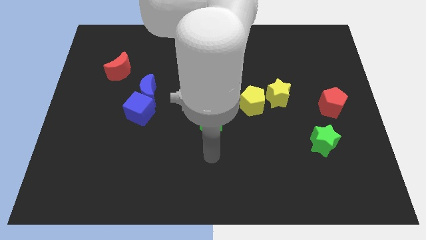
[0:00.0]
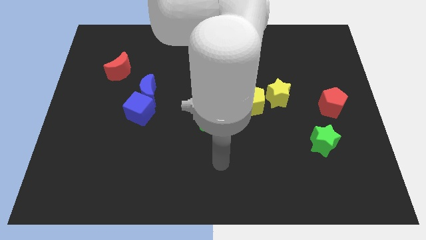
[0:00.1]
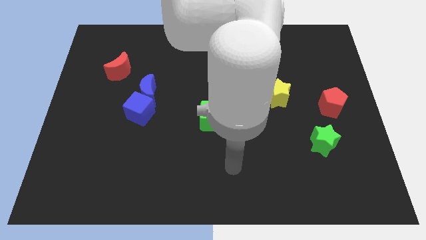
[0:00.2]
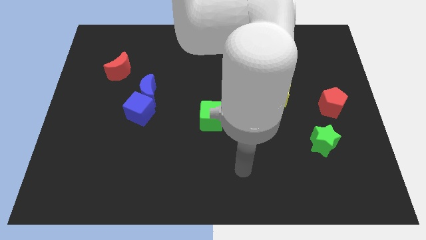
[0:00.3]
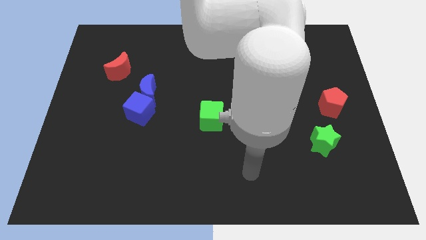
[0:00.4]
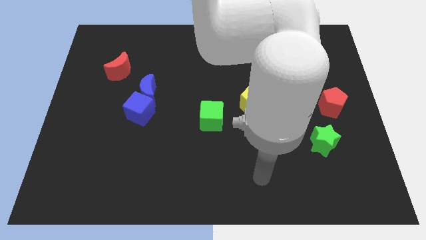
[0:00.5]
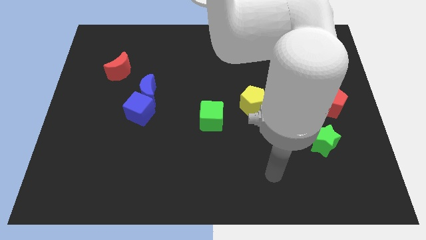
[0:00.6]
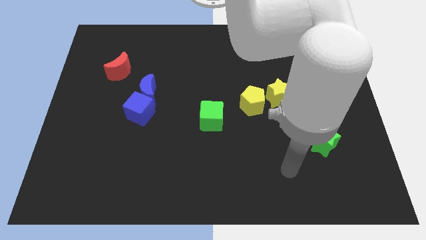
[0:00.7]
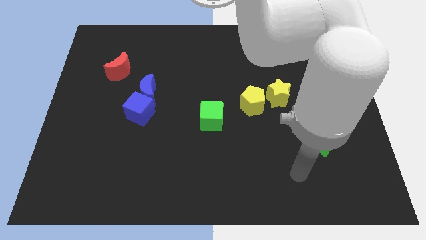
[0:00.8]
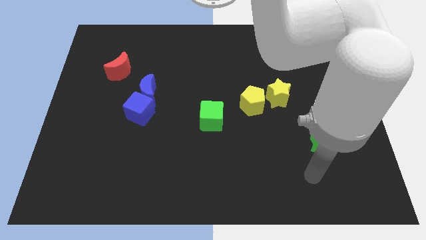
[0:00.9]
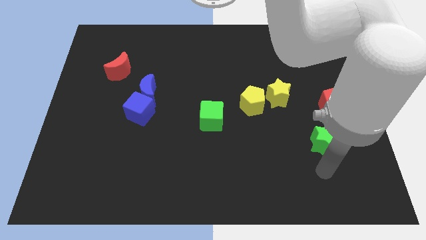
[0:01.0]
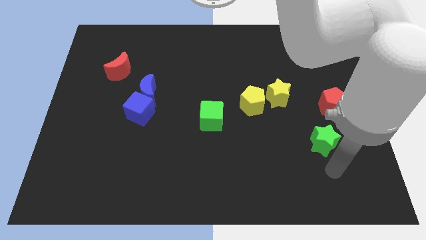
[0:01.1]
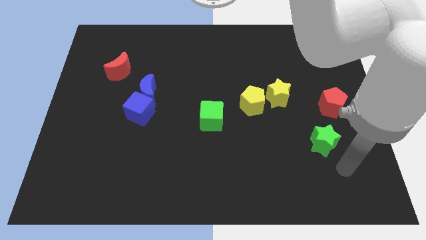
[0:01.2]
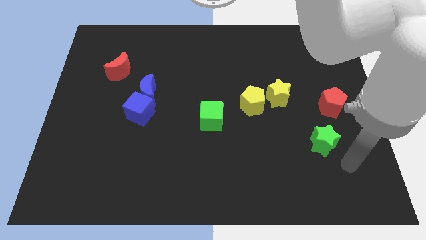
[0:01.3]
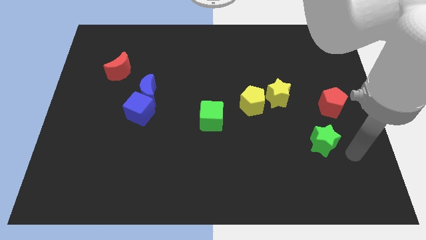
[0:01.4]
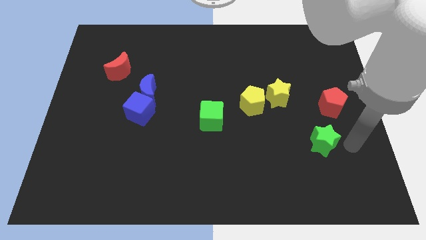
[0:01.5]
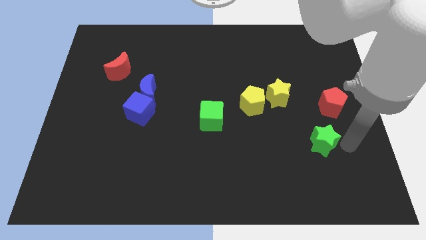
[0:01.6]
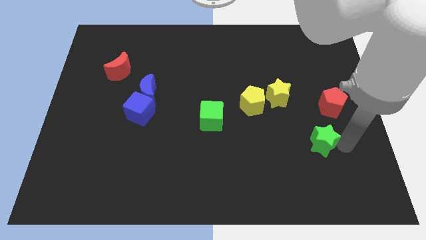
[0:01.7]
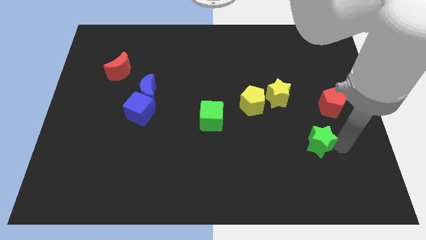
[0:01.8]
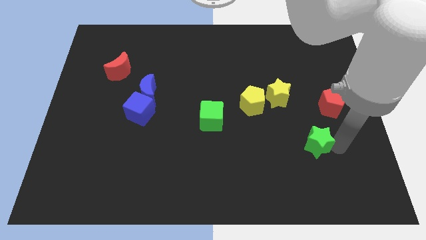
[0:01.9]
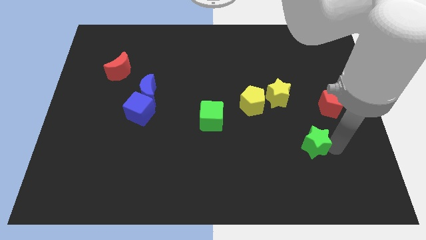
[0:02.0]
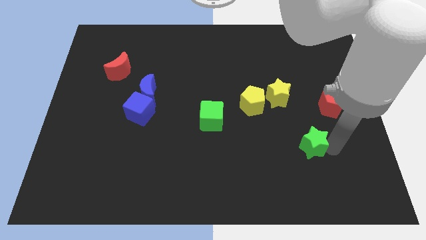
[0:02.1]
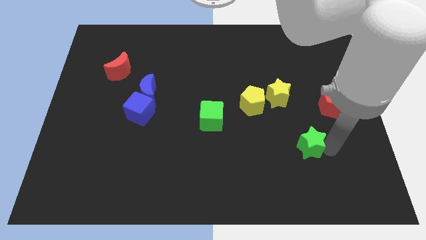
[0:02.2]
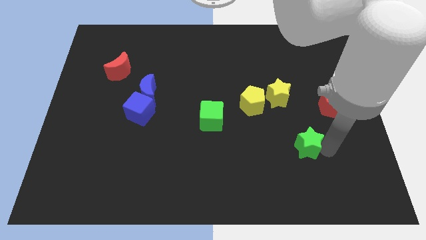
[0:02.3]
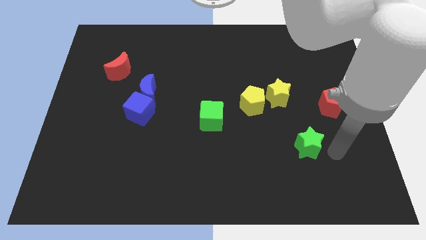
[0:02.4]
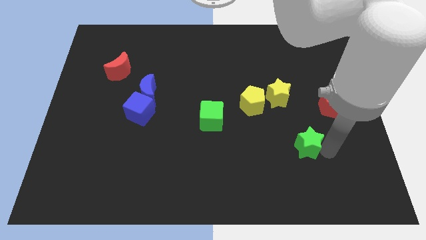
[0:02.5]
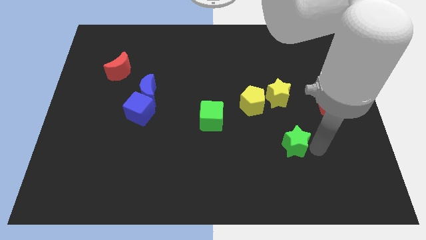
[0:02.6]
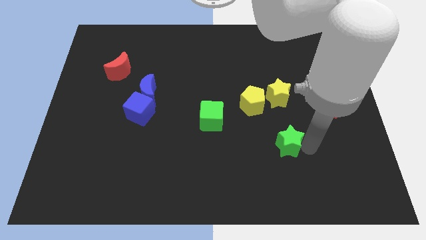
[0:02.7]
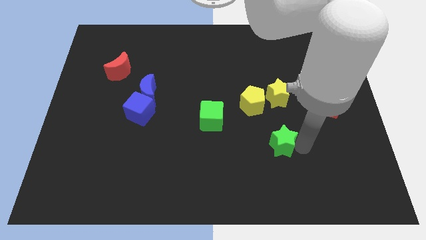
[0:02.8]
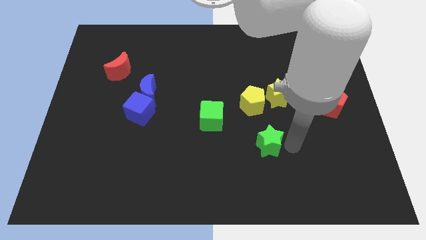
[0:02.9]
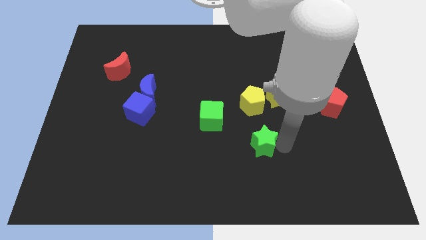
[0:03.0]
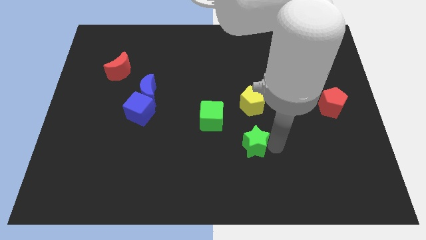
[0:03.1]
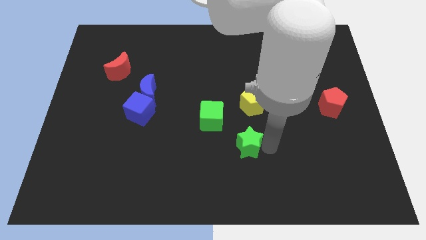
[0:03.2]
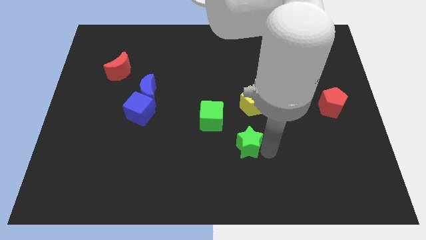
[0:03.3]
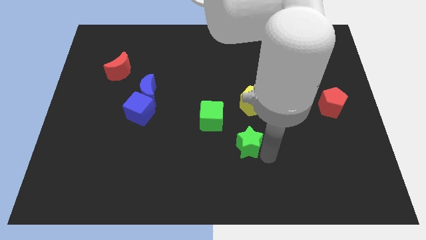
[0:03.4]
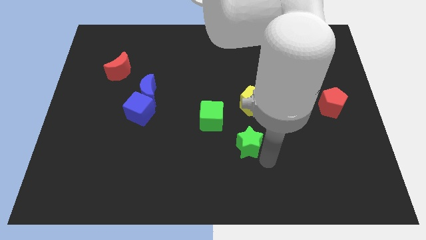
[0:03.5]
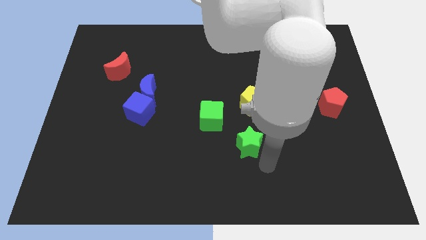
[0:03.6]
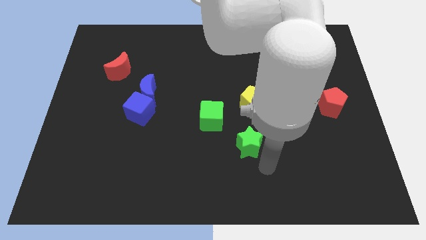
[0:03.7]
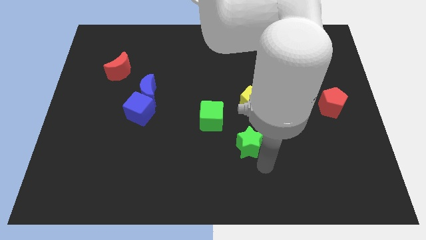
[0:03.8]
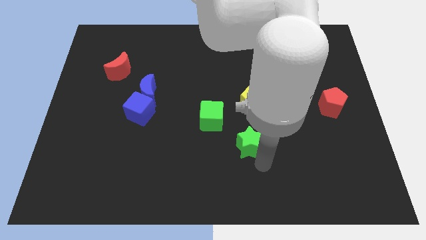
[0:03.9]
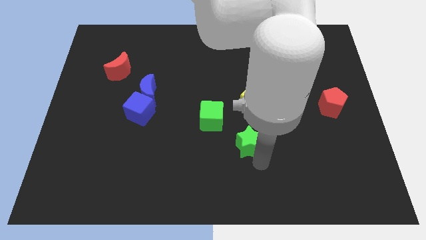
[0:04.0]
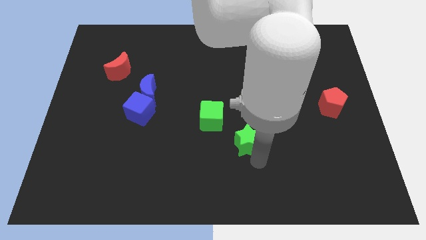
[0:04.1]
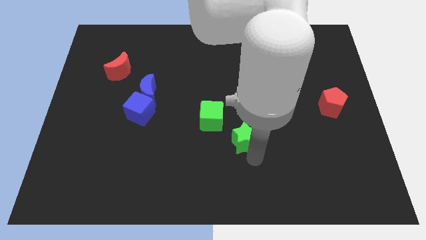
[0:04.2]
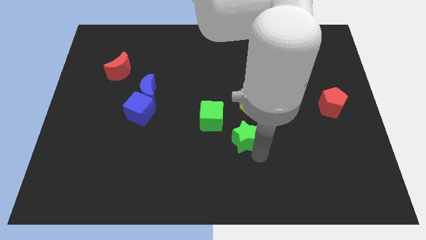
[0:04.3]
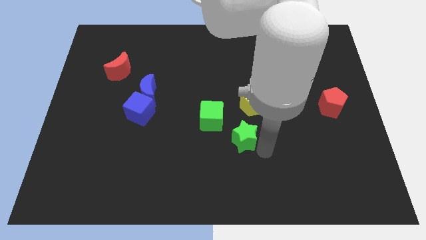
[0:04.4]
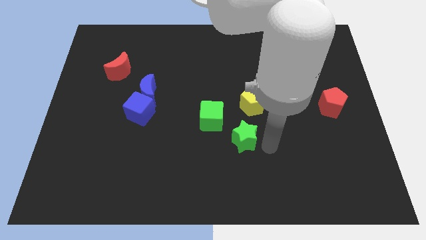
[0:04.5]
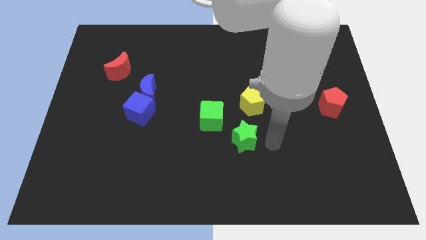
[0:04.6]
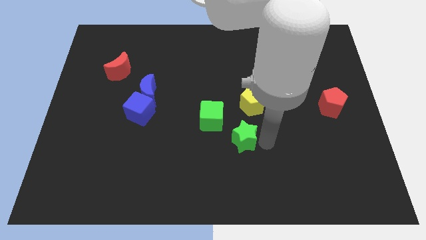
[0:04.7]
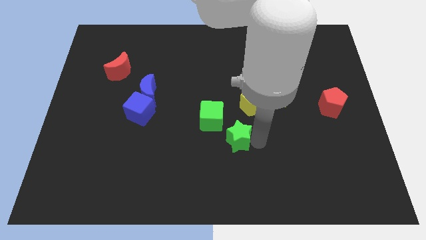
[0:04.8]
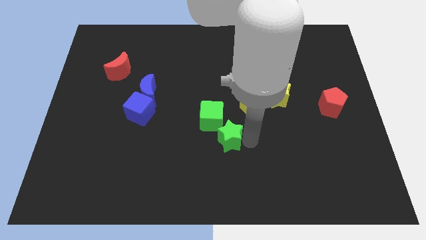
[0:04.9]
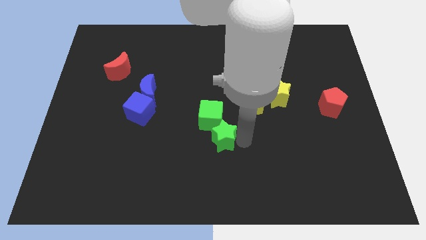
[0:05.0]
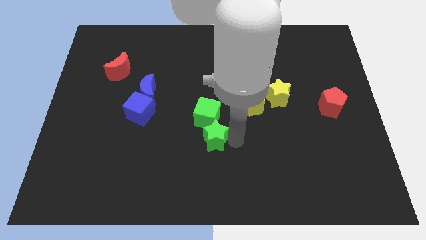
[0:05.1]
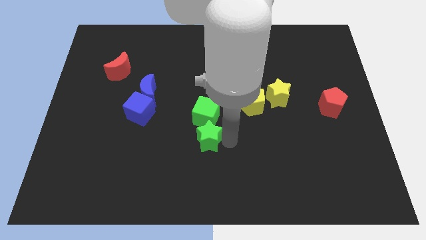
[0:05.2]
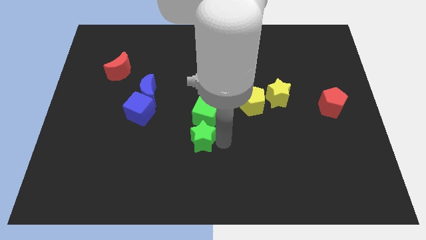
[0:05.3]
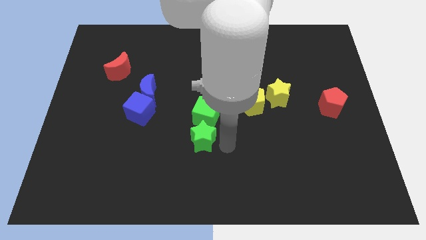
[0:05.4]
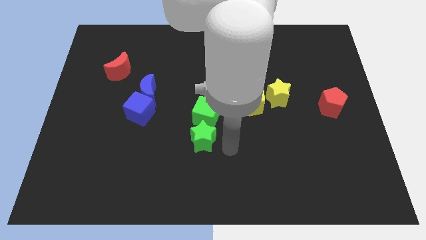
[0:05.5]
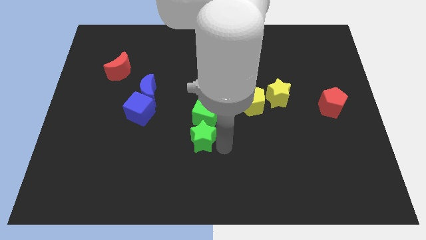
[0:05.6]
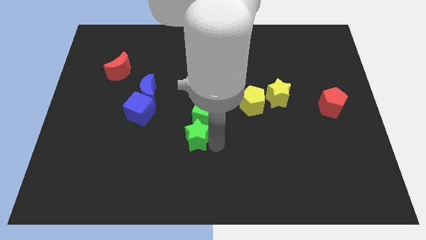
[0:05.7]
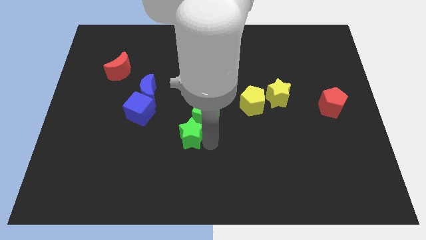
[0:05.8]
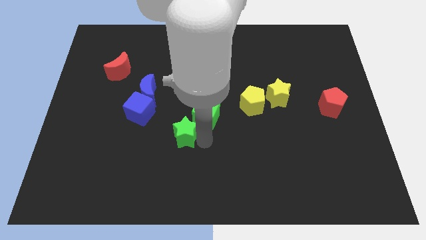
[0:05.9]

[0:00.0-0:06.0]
slide the green star to the bottom right side of the blue cube

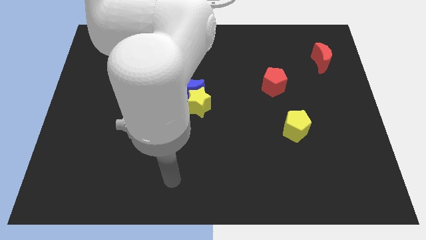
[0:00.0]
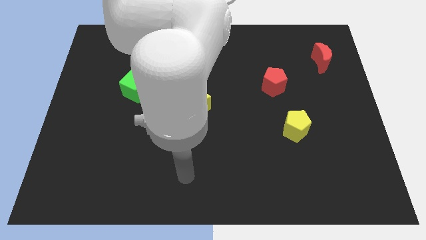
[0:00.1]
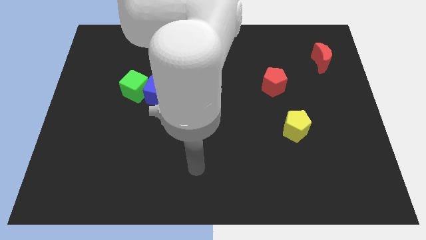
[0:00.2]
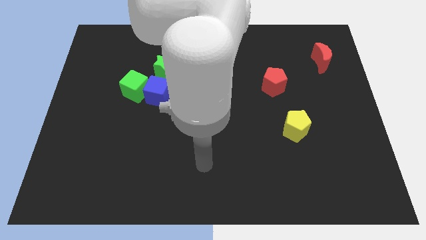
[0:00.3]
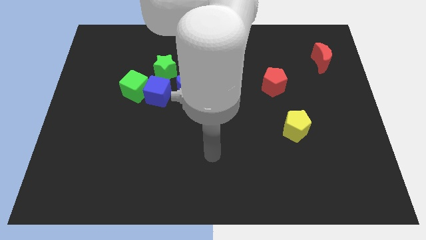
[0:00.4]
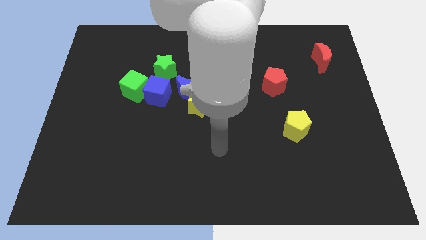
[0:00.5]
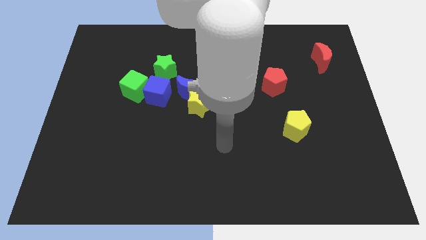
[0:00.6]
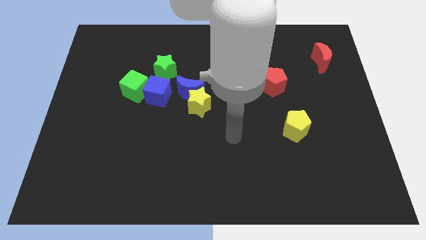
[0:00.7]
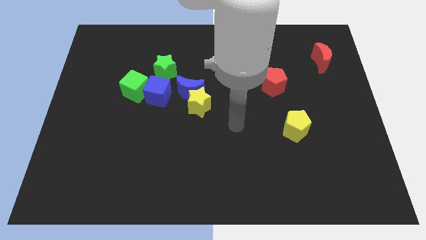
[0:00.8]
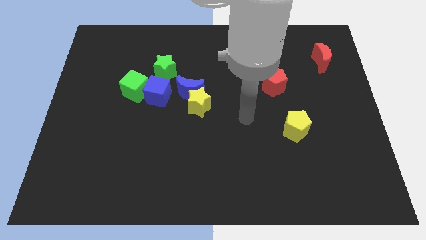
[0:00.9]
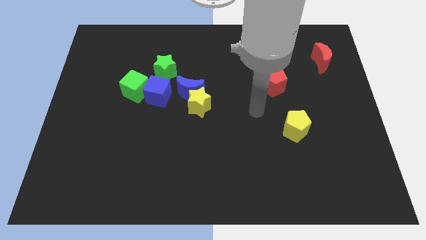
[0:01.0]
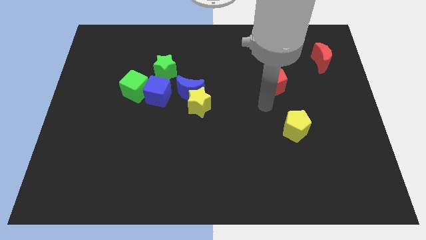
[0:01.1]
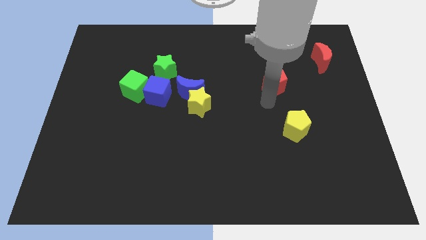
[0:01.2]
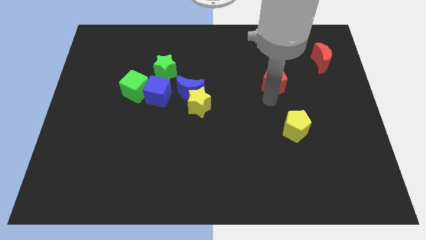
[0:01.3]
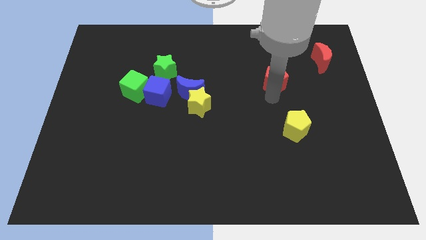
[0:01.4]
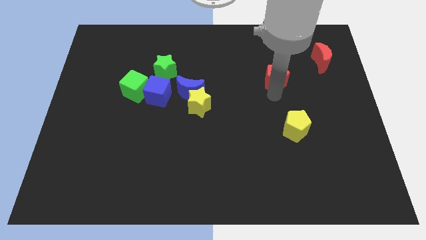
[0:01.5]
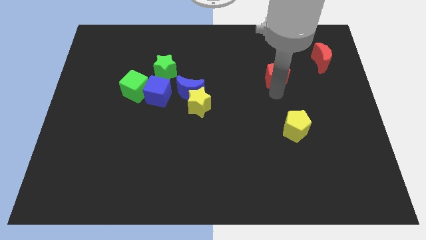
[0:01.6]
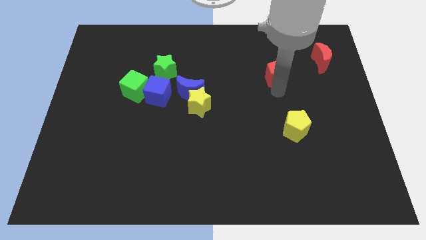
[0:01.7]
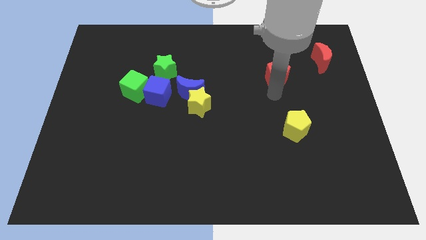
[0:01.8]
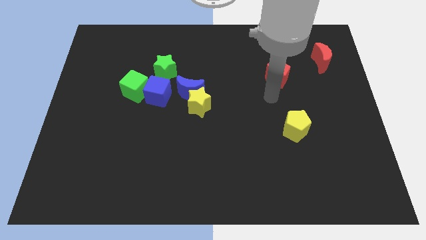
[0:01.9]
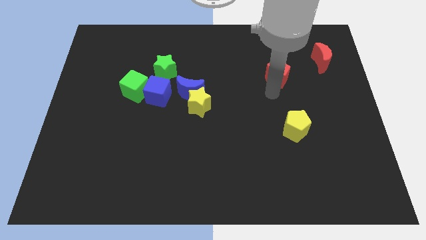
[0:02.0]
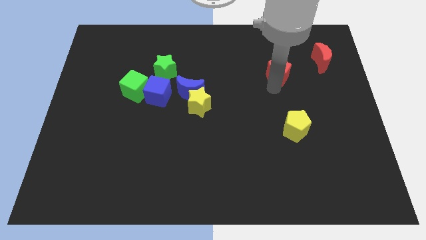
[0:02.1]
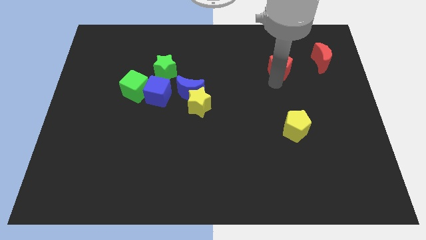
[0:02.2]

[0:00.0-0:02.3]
push the red pentagon to the left side of the red moon
